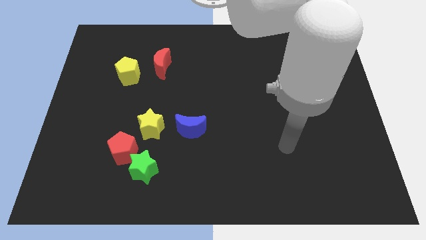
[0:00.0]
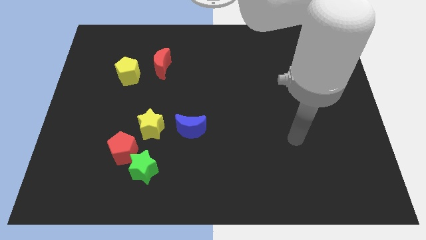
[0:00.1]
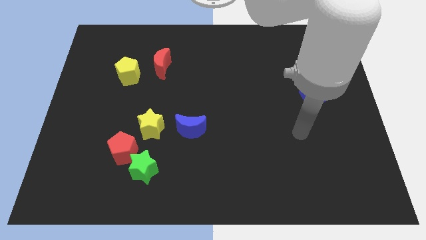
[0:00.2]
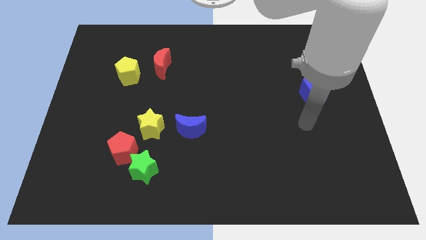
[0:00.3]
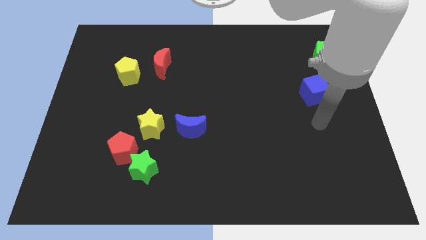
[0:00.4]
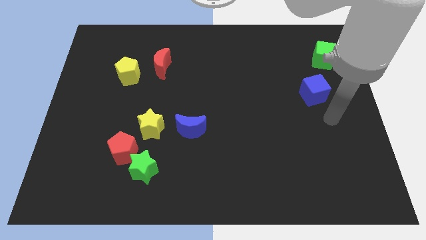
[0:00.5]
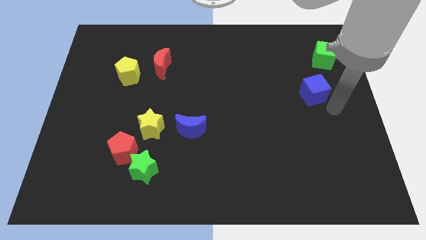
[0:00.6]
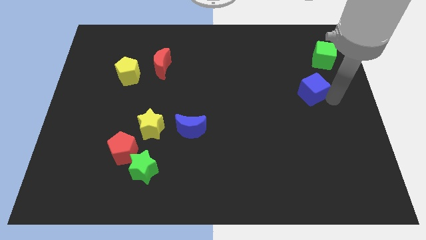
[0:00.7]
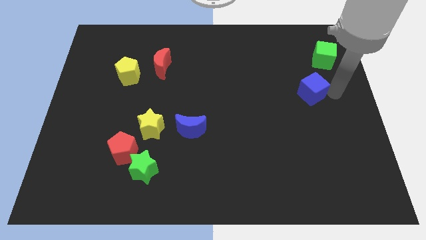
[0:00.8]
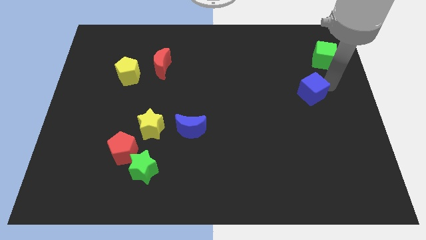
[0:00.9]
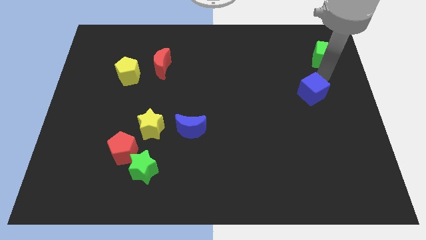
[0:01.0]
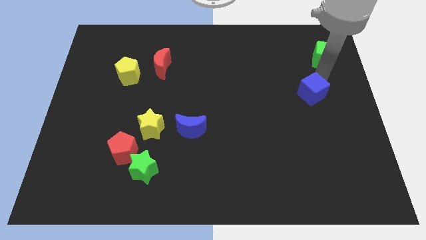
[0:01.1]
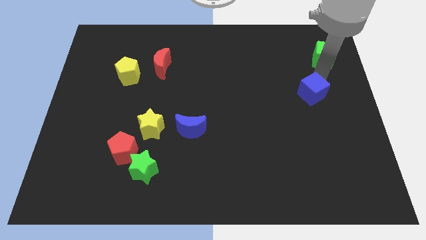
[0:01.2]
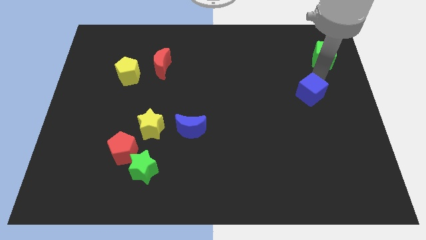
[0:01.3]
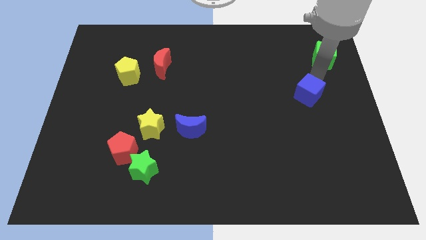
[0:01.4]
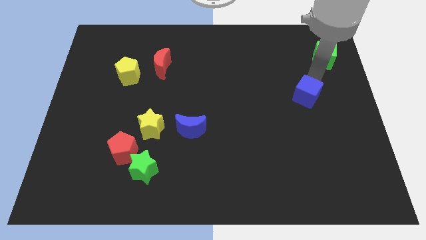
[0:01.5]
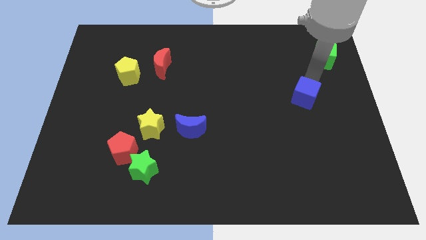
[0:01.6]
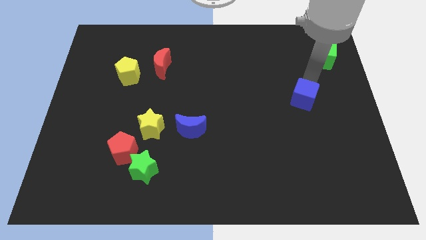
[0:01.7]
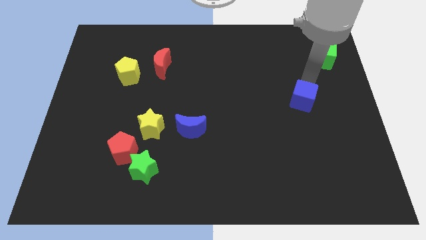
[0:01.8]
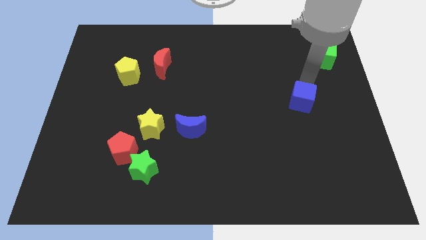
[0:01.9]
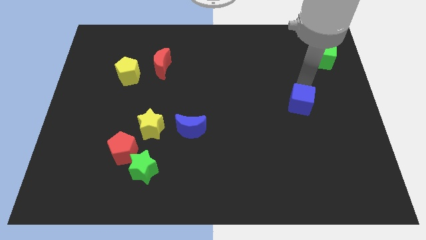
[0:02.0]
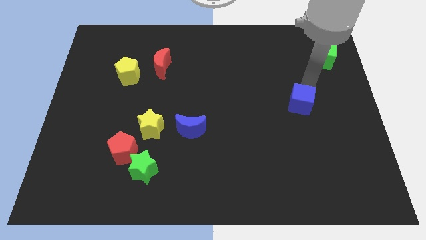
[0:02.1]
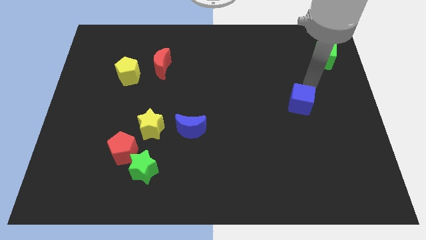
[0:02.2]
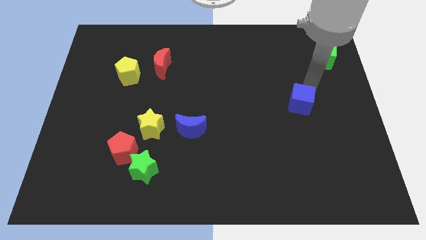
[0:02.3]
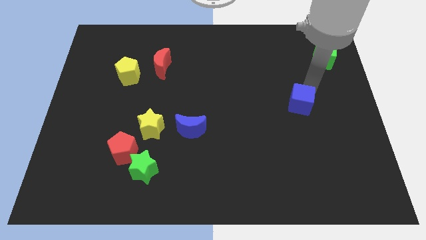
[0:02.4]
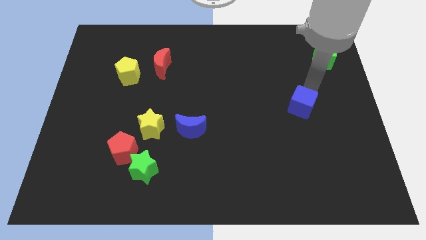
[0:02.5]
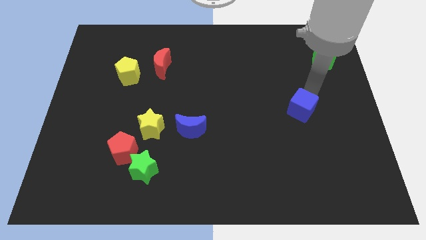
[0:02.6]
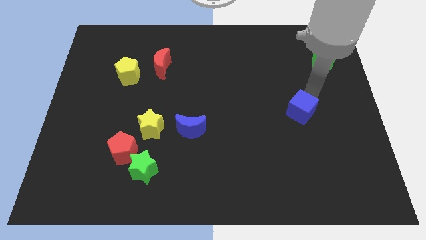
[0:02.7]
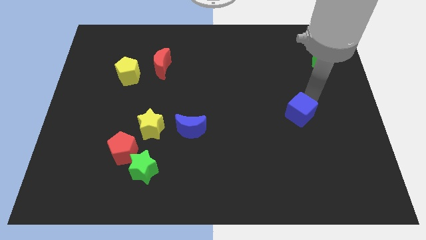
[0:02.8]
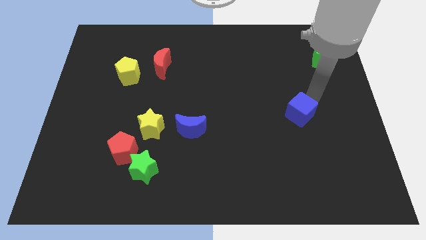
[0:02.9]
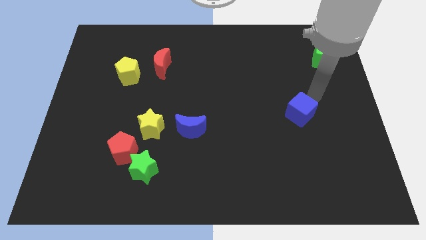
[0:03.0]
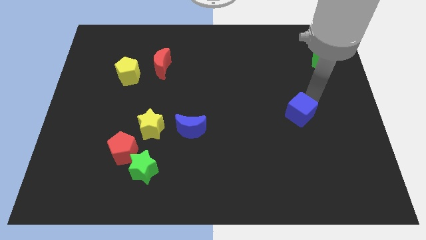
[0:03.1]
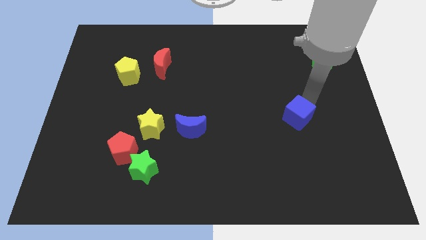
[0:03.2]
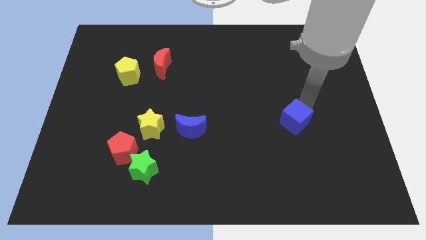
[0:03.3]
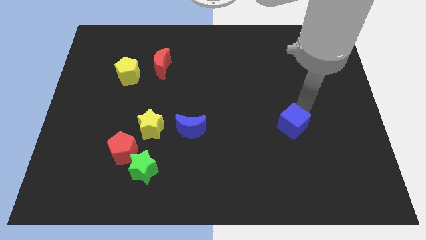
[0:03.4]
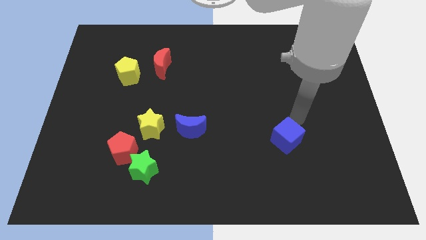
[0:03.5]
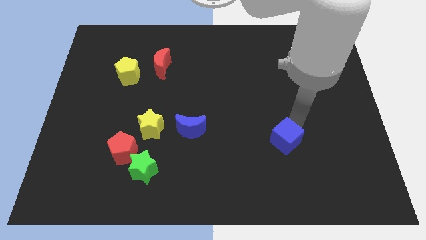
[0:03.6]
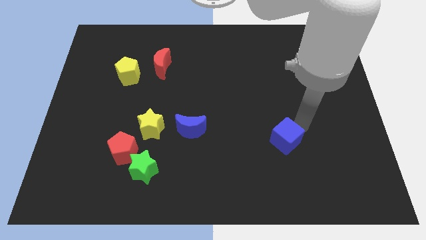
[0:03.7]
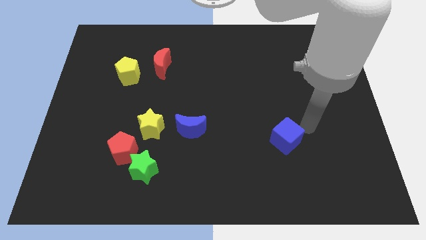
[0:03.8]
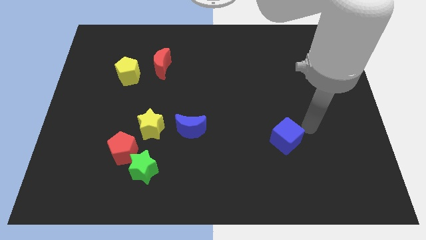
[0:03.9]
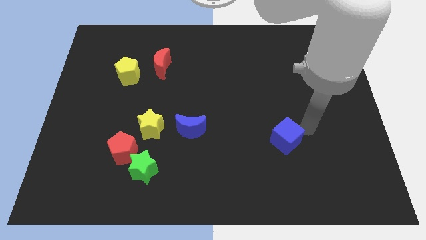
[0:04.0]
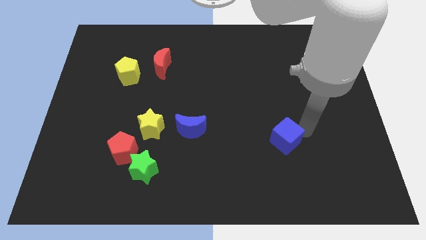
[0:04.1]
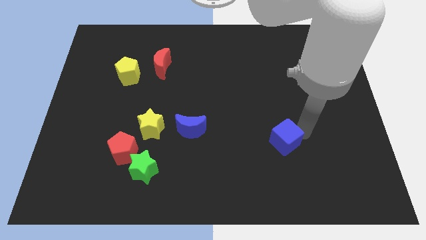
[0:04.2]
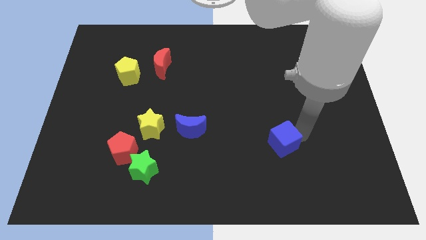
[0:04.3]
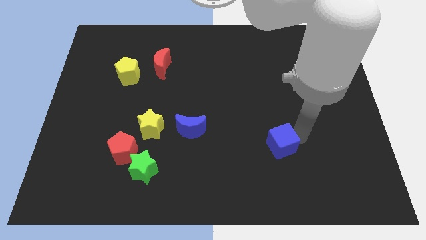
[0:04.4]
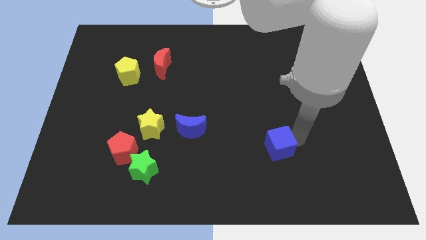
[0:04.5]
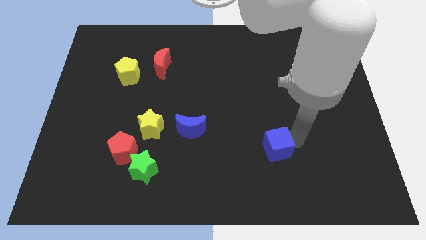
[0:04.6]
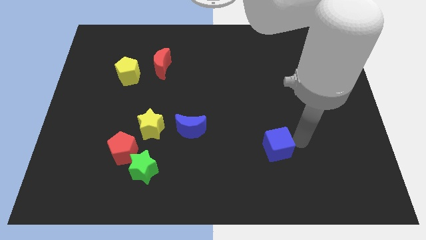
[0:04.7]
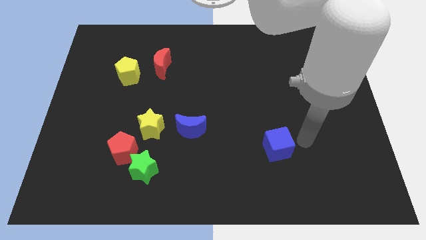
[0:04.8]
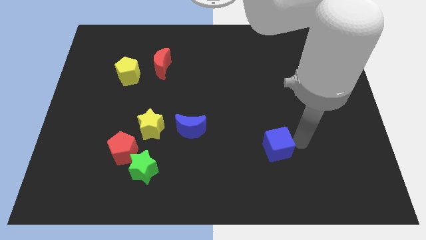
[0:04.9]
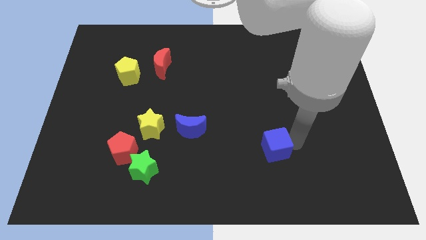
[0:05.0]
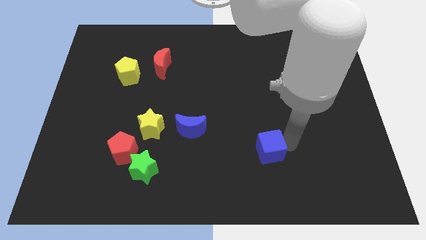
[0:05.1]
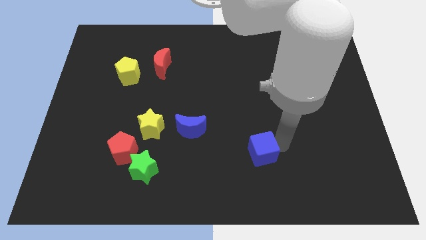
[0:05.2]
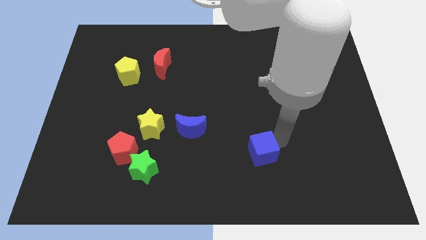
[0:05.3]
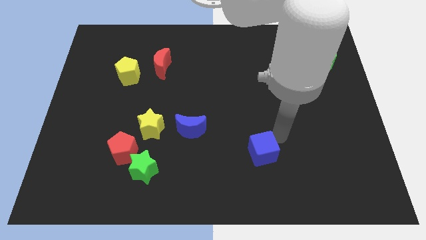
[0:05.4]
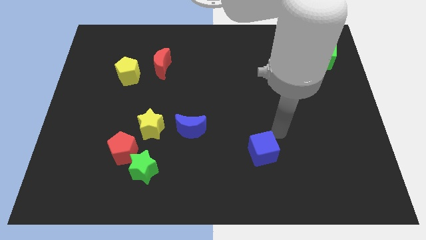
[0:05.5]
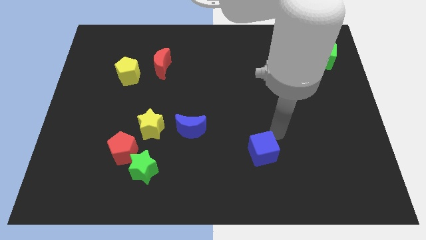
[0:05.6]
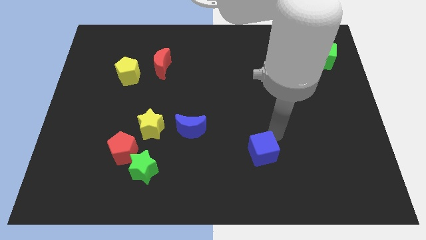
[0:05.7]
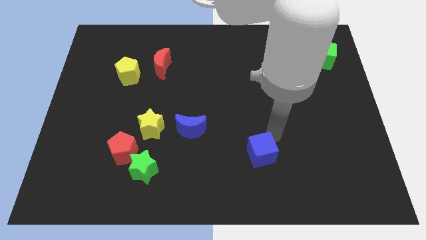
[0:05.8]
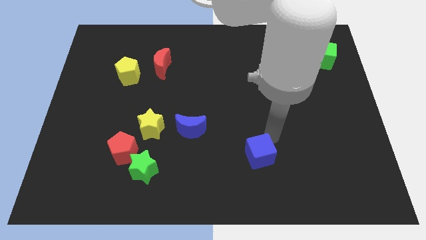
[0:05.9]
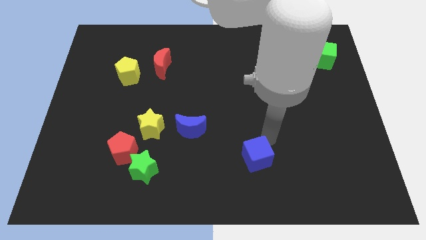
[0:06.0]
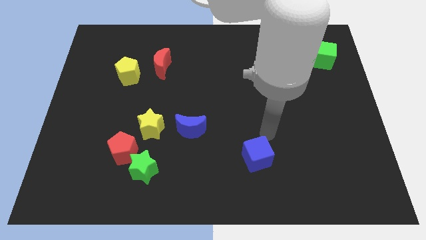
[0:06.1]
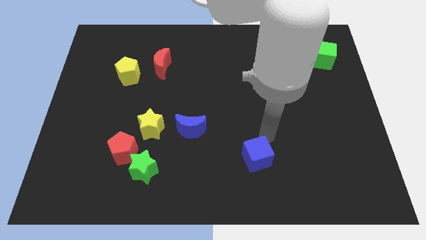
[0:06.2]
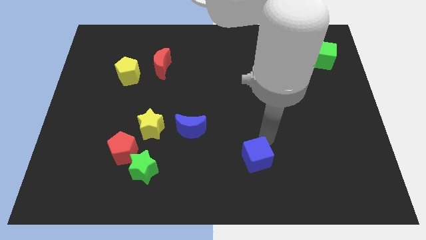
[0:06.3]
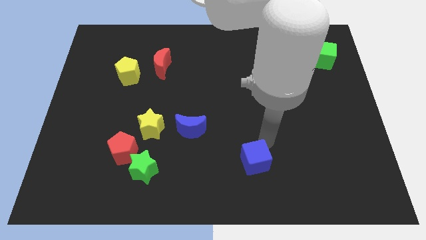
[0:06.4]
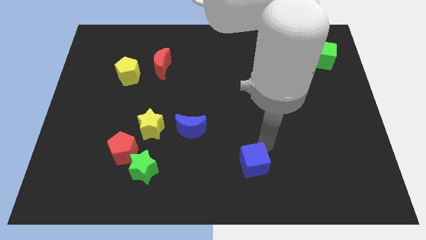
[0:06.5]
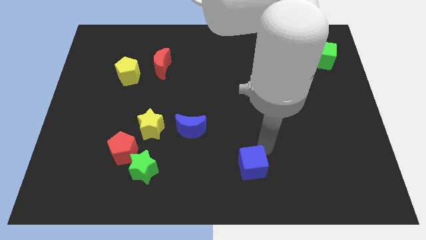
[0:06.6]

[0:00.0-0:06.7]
push the blue cube to the bottom side

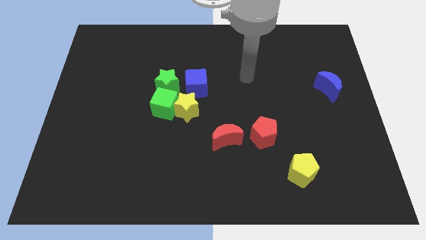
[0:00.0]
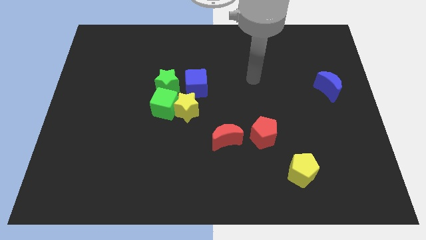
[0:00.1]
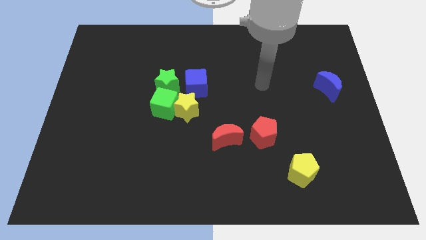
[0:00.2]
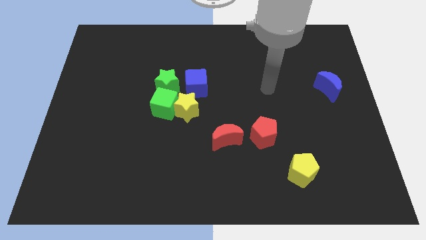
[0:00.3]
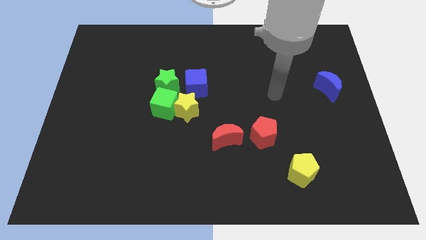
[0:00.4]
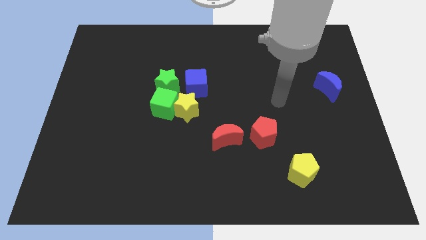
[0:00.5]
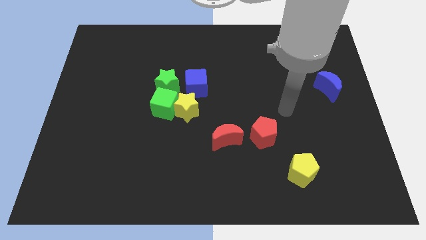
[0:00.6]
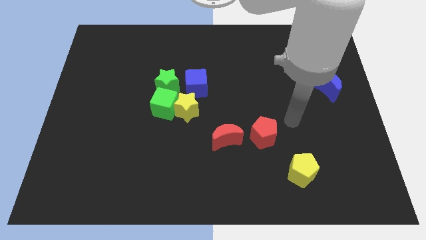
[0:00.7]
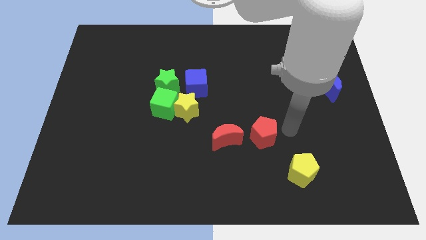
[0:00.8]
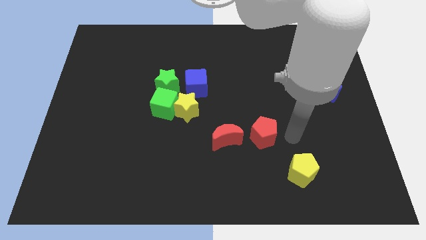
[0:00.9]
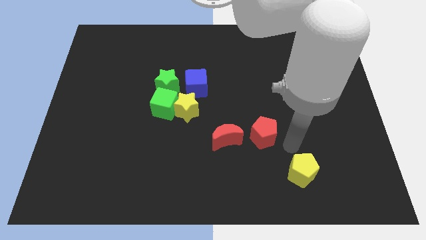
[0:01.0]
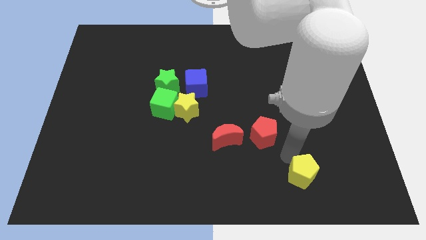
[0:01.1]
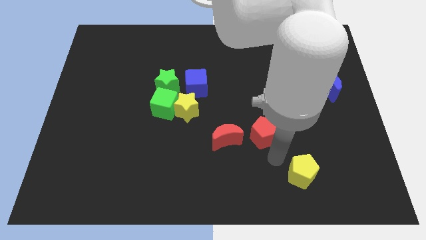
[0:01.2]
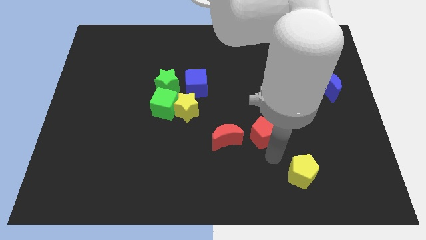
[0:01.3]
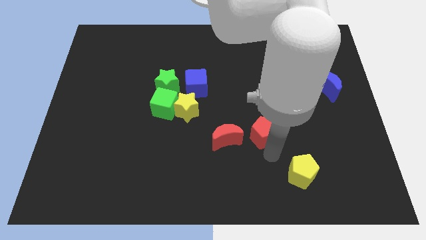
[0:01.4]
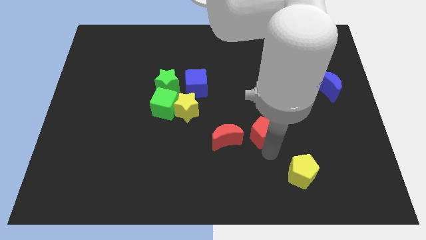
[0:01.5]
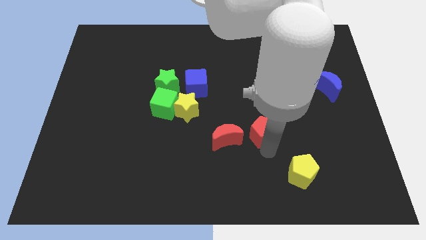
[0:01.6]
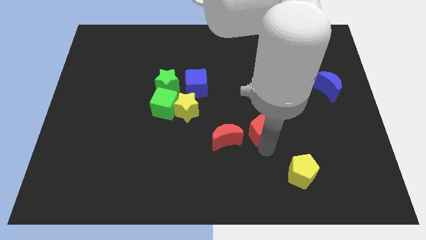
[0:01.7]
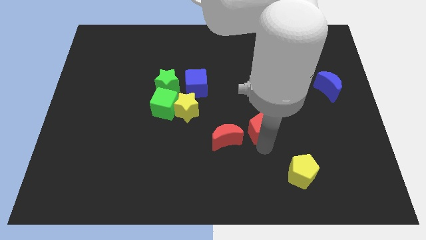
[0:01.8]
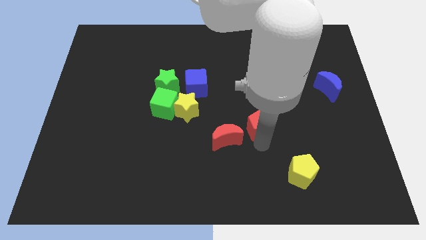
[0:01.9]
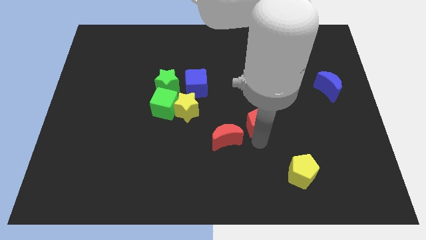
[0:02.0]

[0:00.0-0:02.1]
put the red pentagon to the middle of the board
